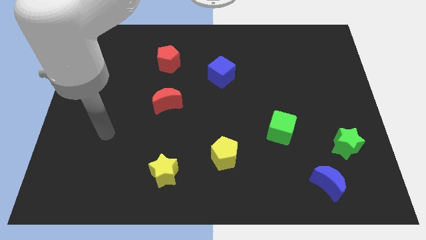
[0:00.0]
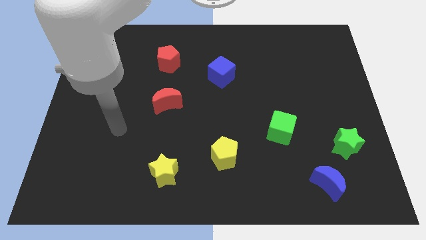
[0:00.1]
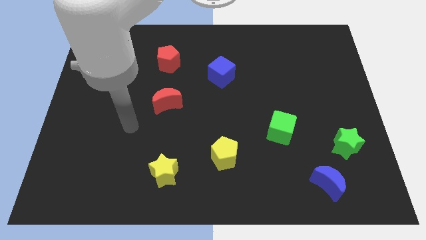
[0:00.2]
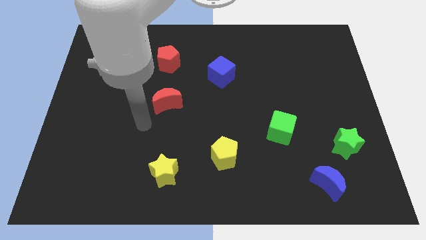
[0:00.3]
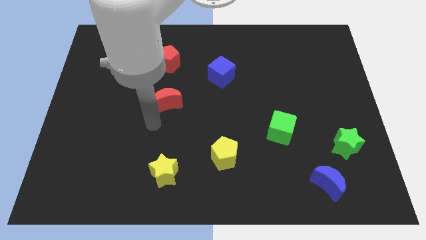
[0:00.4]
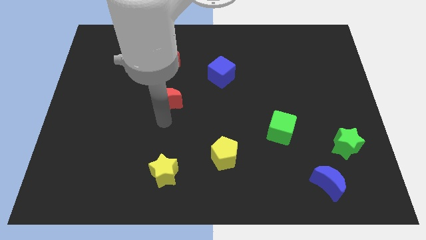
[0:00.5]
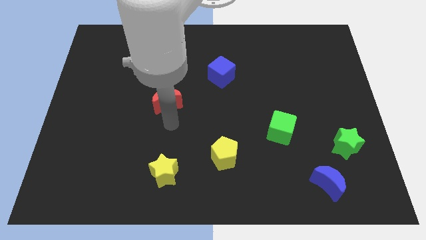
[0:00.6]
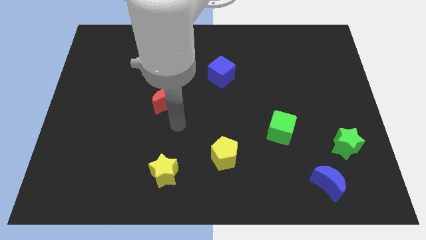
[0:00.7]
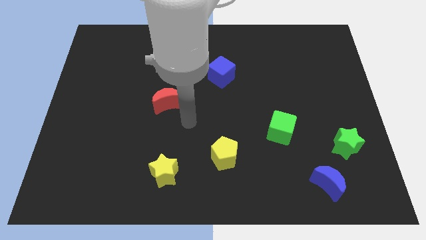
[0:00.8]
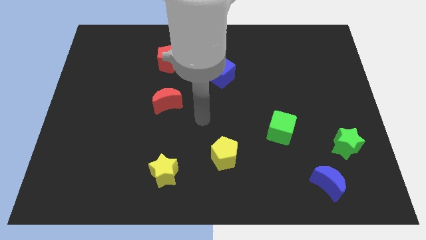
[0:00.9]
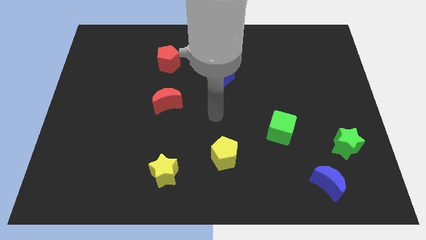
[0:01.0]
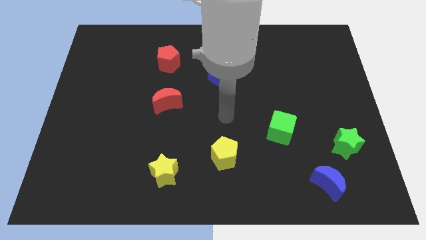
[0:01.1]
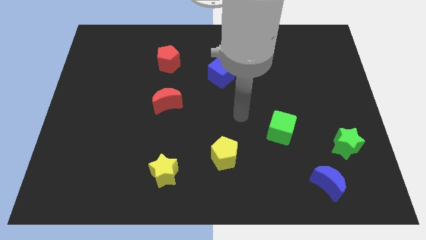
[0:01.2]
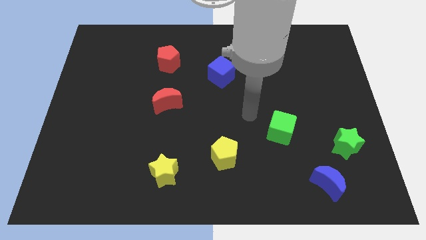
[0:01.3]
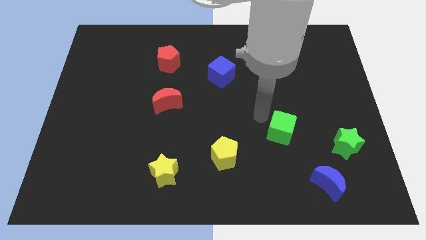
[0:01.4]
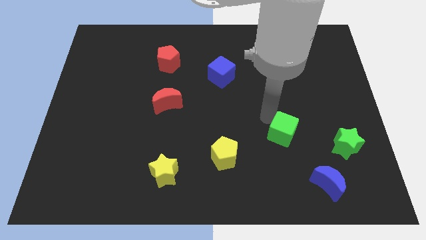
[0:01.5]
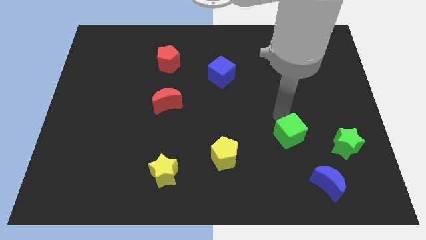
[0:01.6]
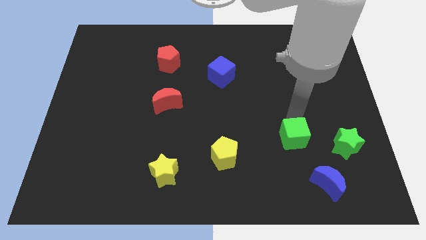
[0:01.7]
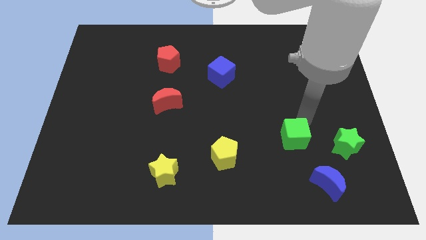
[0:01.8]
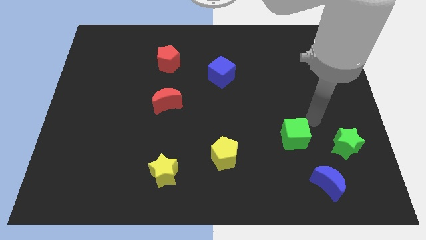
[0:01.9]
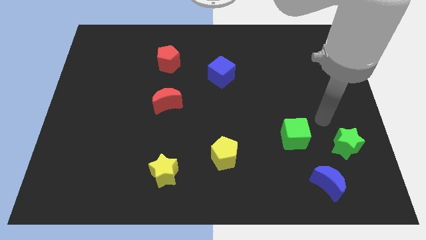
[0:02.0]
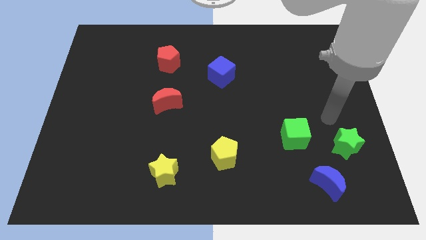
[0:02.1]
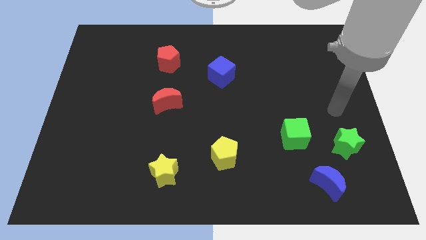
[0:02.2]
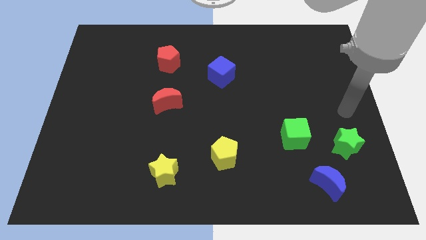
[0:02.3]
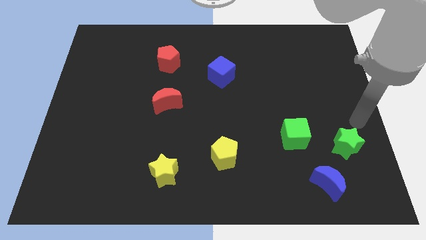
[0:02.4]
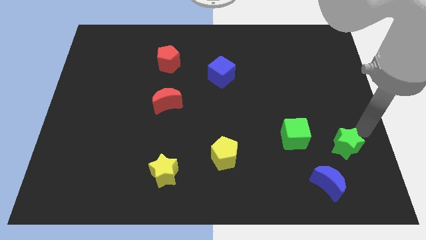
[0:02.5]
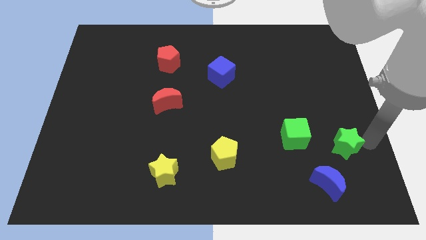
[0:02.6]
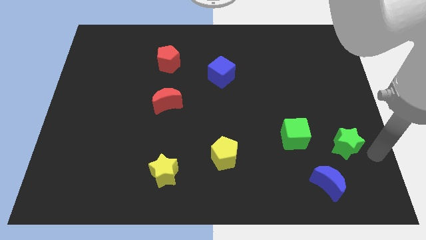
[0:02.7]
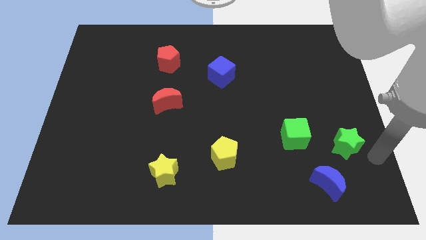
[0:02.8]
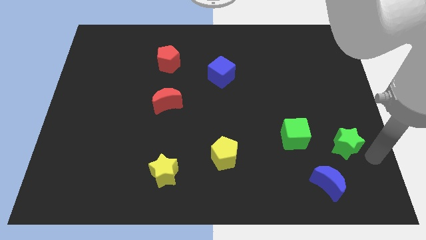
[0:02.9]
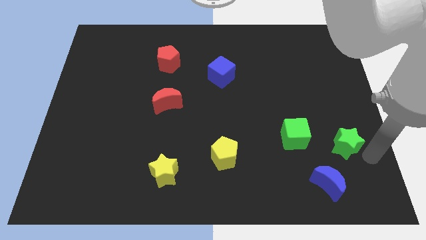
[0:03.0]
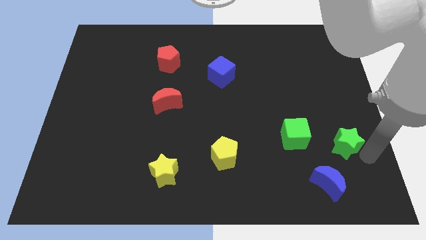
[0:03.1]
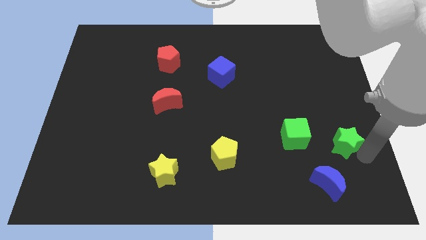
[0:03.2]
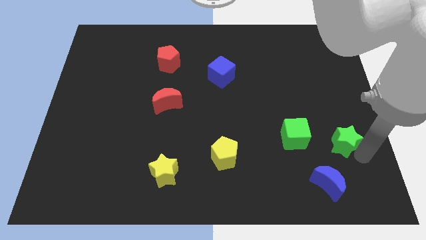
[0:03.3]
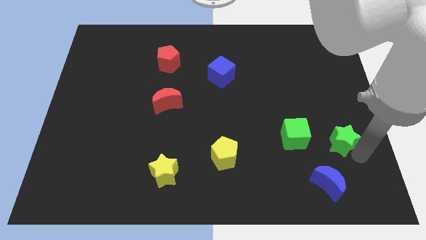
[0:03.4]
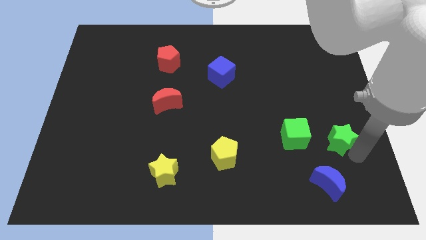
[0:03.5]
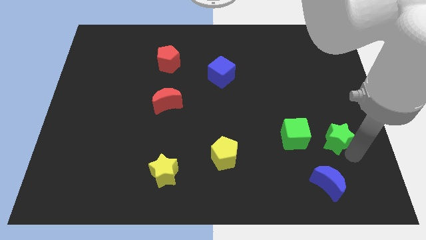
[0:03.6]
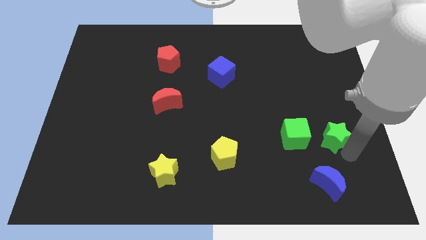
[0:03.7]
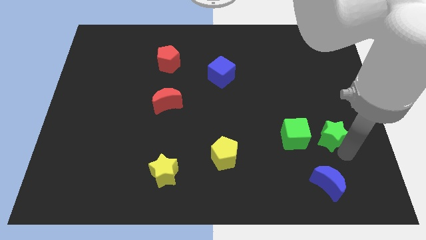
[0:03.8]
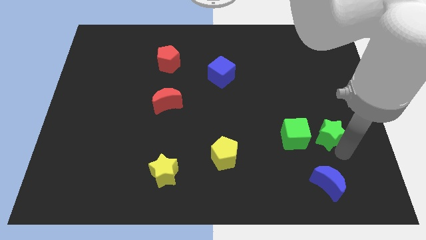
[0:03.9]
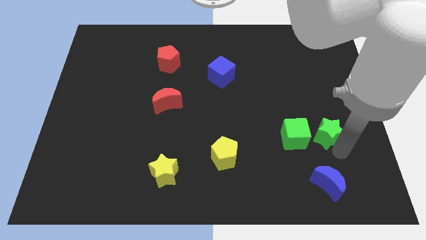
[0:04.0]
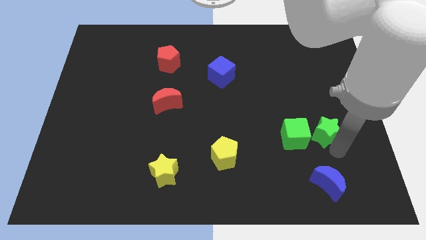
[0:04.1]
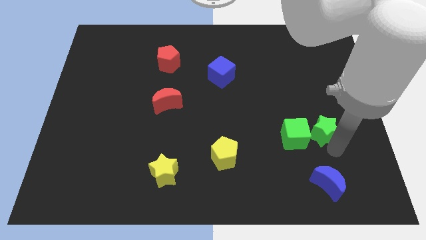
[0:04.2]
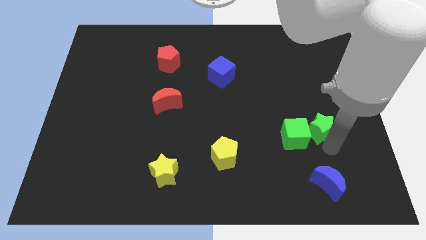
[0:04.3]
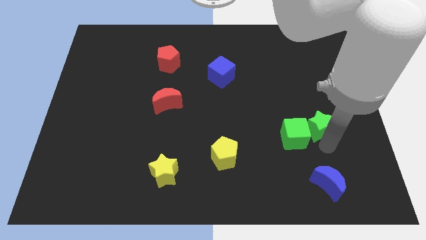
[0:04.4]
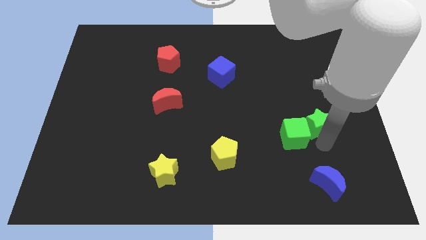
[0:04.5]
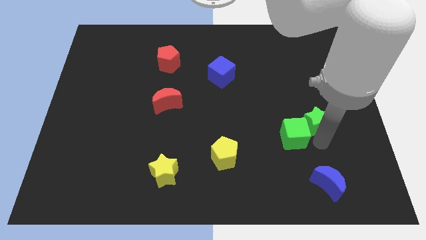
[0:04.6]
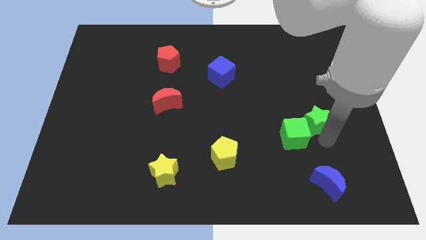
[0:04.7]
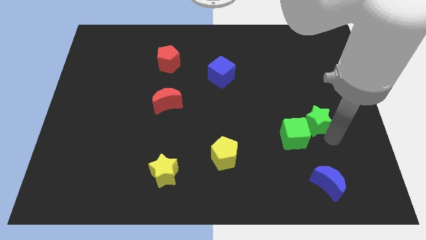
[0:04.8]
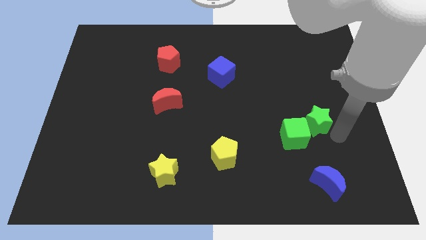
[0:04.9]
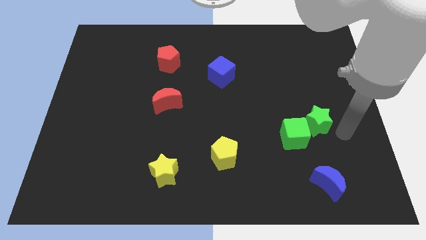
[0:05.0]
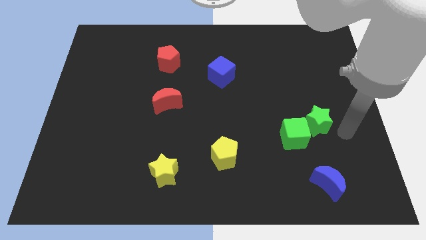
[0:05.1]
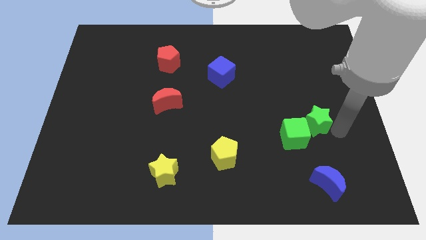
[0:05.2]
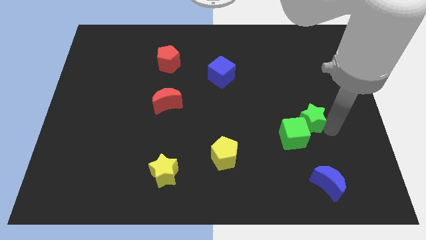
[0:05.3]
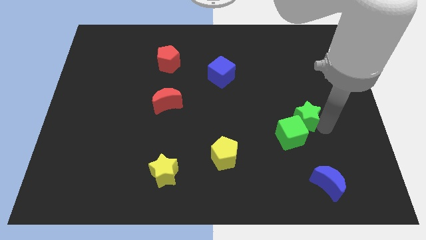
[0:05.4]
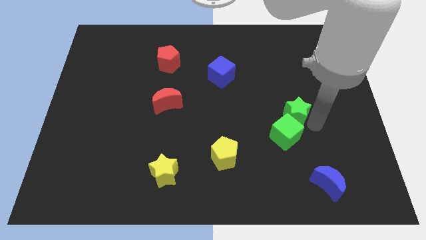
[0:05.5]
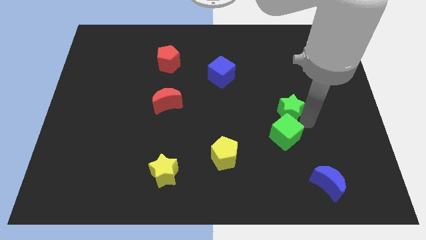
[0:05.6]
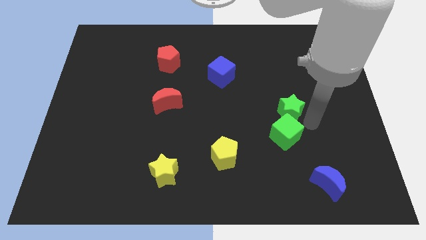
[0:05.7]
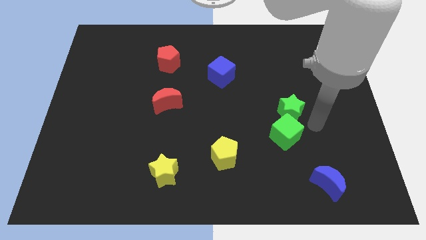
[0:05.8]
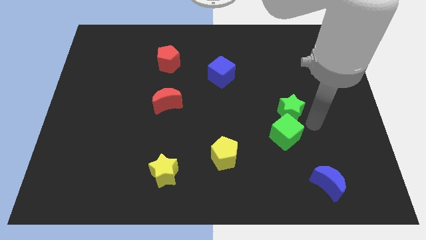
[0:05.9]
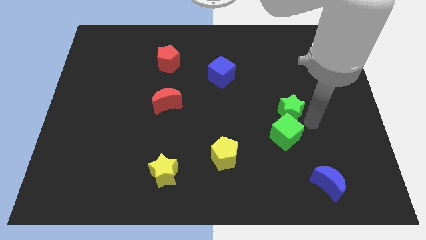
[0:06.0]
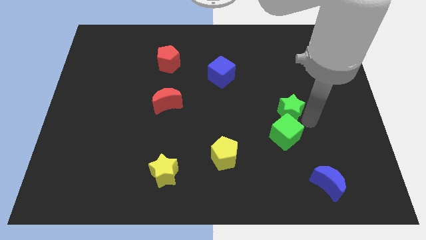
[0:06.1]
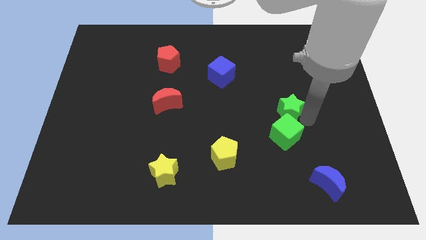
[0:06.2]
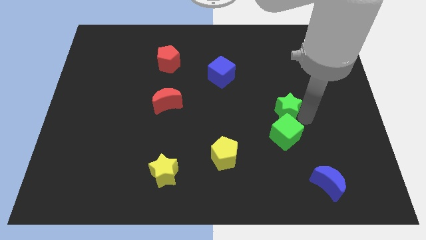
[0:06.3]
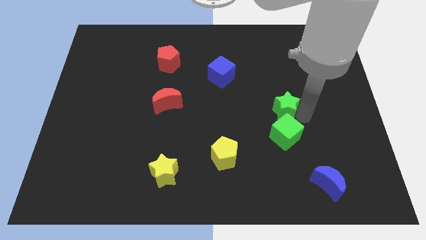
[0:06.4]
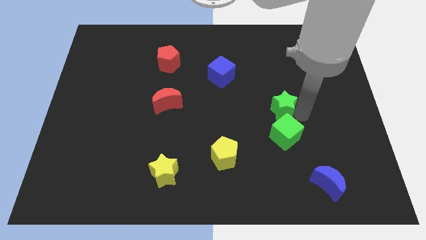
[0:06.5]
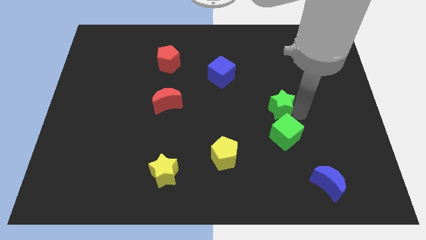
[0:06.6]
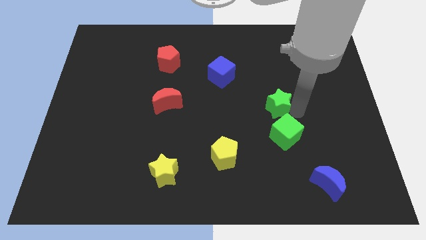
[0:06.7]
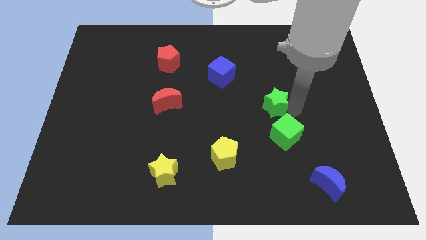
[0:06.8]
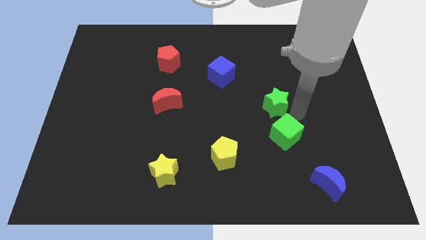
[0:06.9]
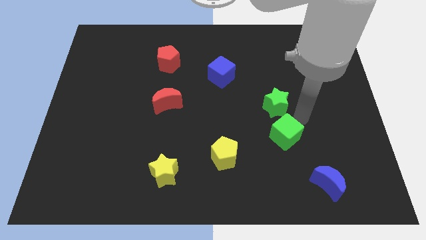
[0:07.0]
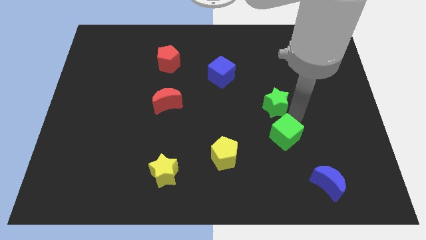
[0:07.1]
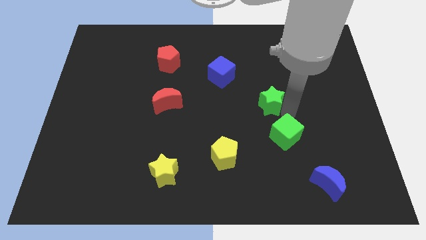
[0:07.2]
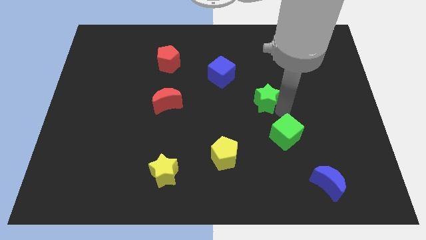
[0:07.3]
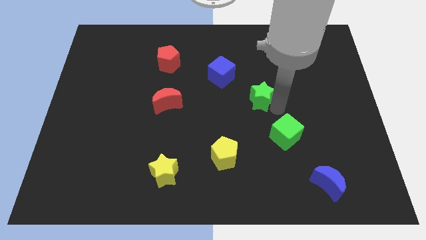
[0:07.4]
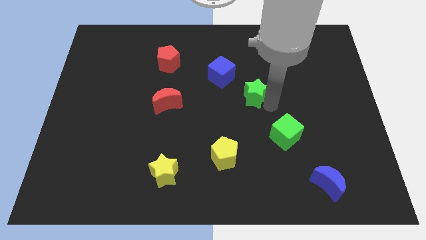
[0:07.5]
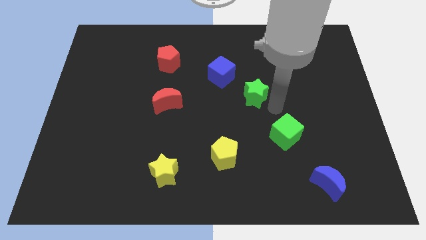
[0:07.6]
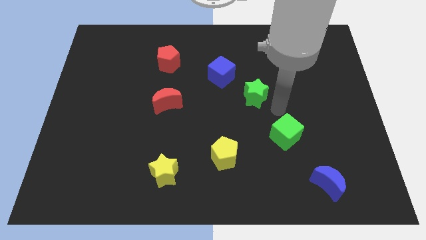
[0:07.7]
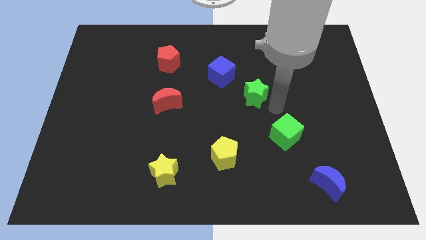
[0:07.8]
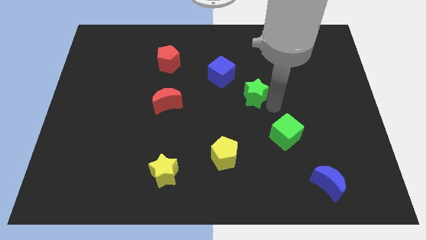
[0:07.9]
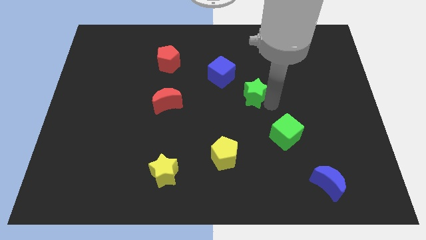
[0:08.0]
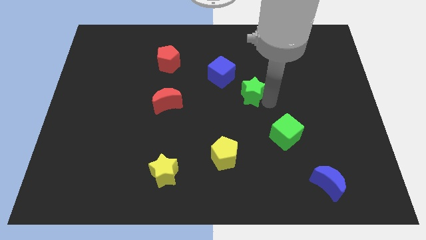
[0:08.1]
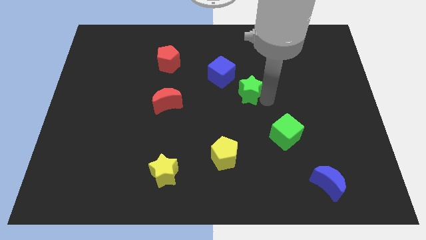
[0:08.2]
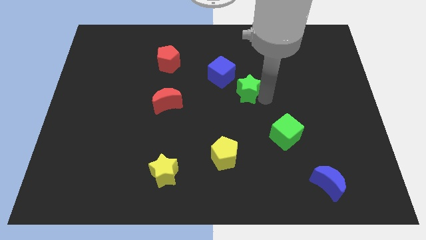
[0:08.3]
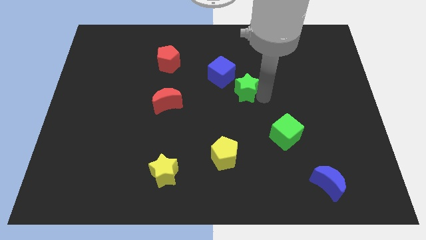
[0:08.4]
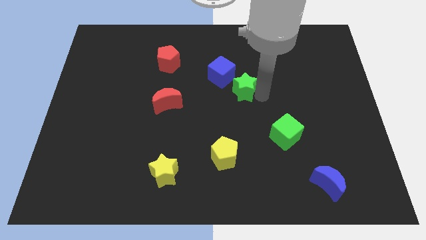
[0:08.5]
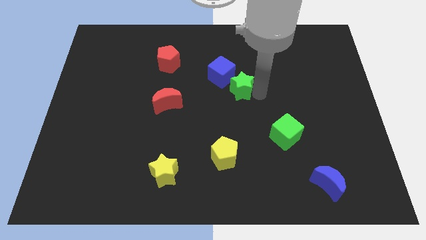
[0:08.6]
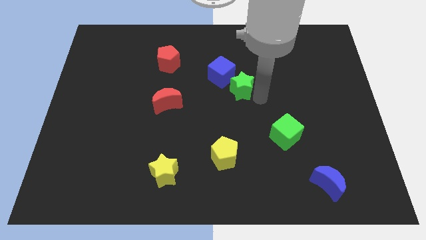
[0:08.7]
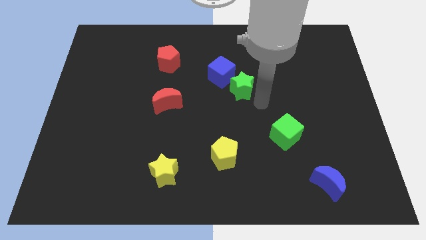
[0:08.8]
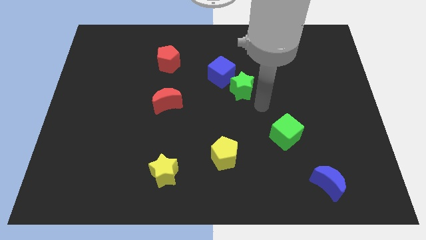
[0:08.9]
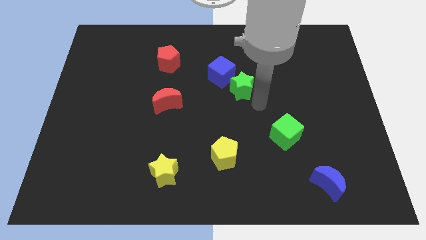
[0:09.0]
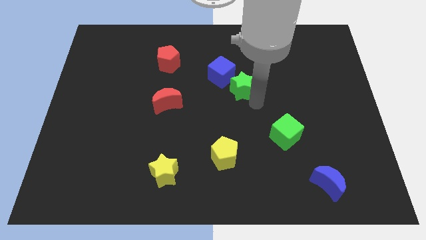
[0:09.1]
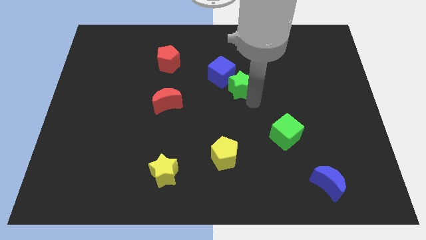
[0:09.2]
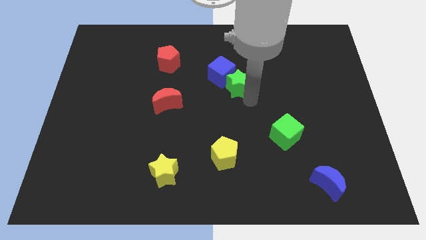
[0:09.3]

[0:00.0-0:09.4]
put the green star next to the blue cube
